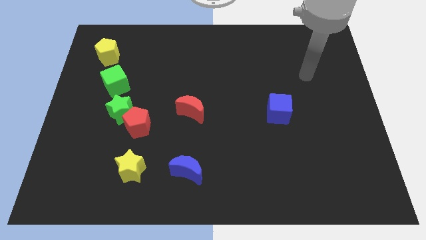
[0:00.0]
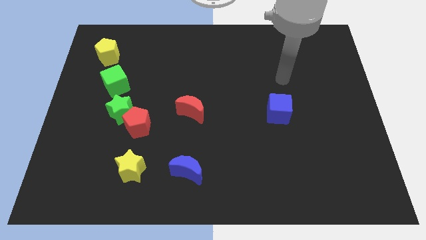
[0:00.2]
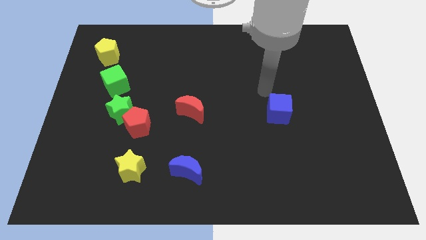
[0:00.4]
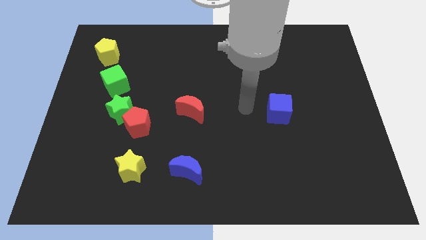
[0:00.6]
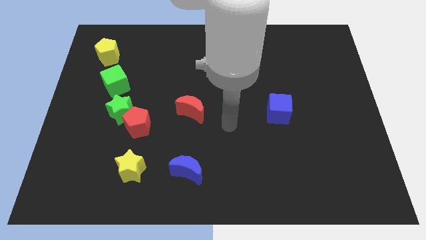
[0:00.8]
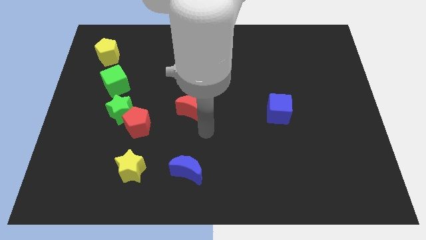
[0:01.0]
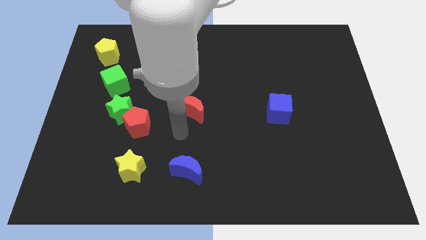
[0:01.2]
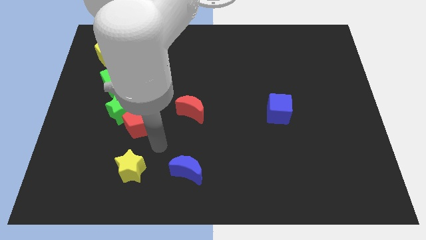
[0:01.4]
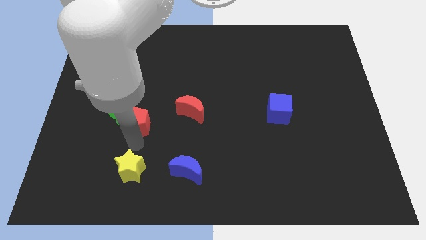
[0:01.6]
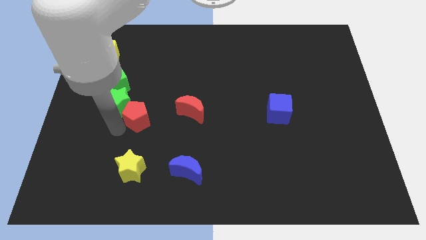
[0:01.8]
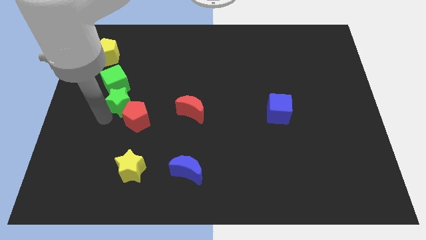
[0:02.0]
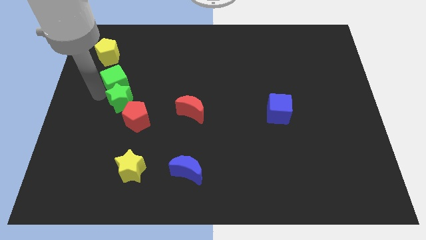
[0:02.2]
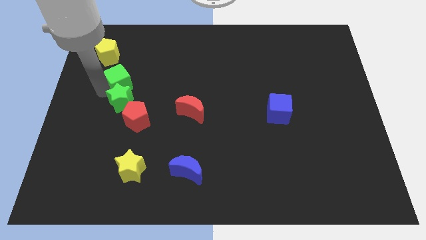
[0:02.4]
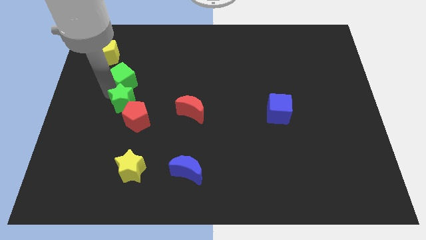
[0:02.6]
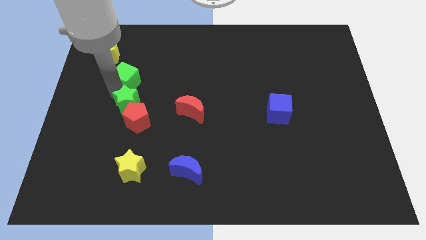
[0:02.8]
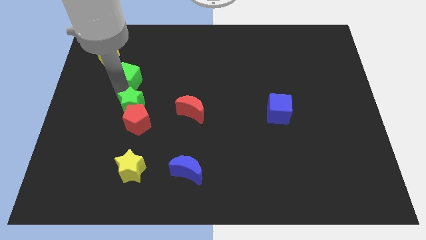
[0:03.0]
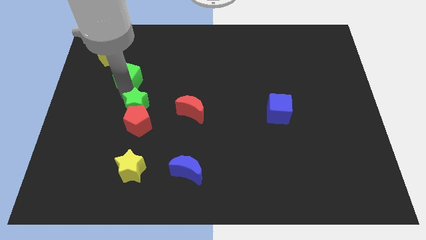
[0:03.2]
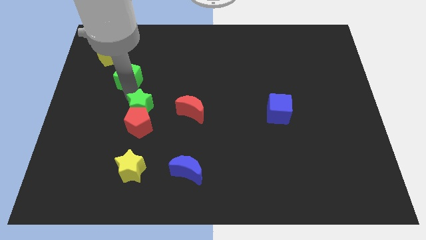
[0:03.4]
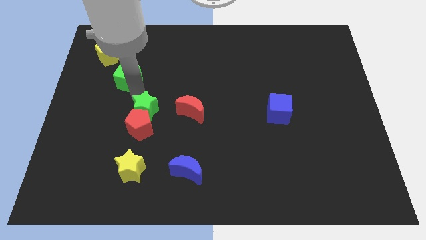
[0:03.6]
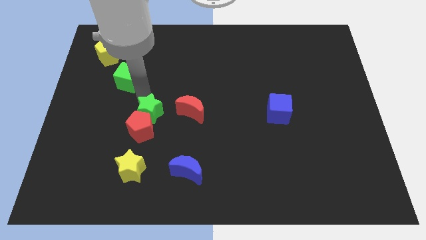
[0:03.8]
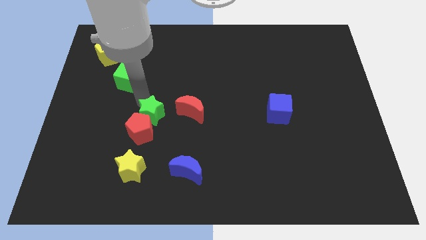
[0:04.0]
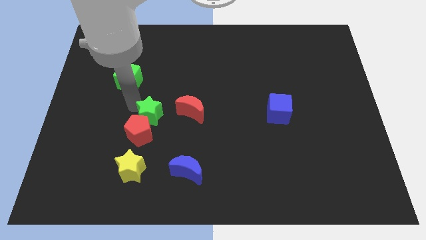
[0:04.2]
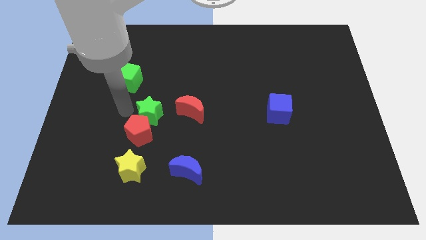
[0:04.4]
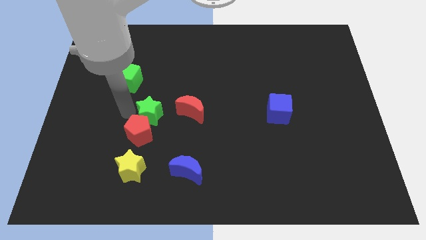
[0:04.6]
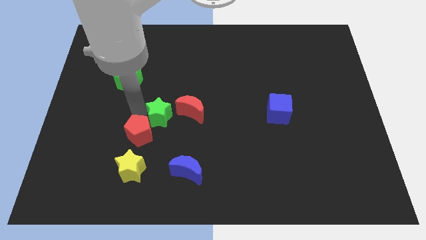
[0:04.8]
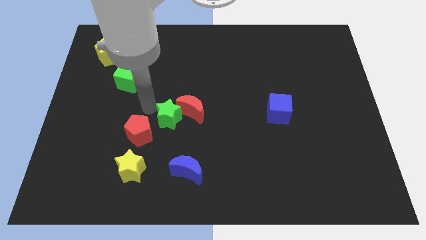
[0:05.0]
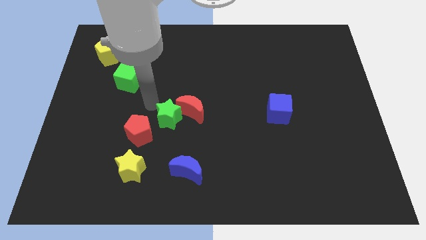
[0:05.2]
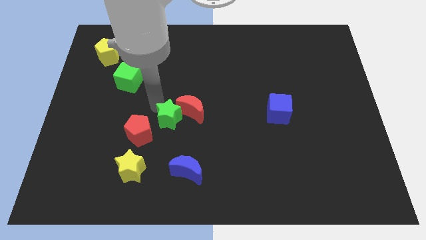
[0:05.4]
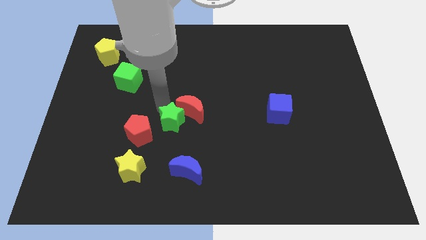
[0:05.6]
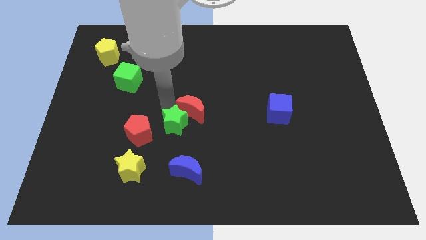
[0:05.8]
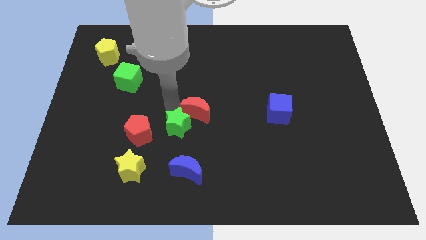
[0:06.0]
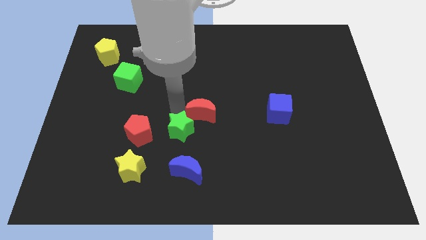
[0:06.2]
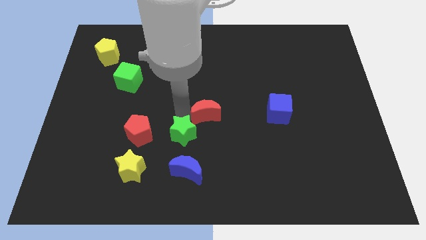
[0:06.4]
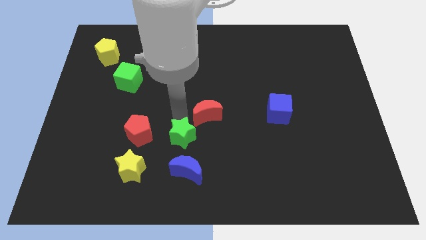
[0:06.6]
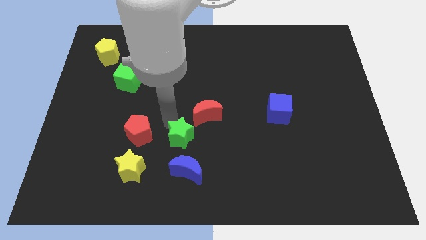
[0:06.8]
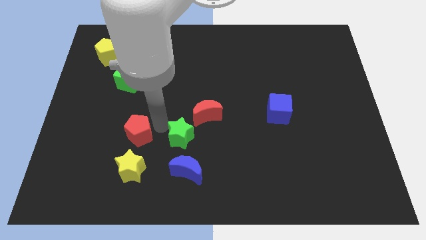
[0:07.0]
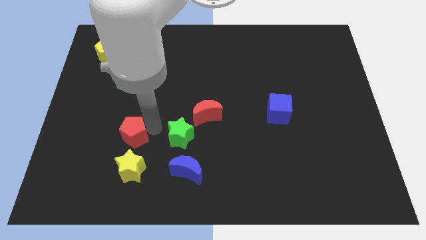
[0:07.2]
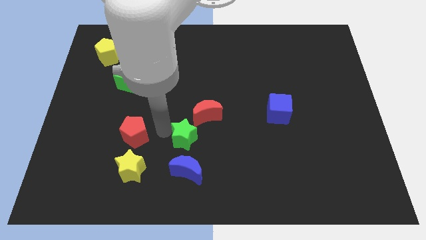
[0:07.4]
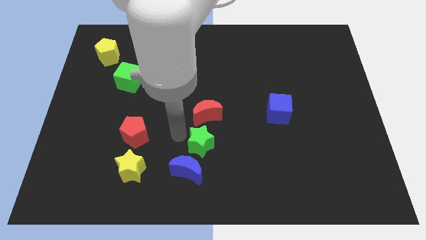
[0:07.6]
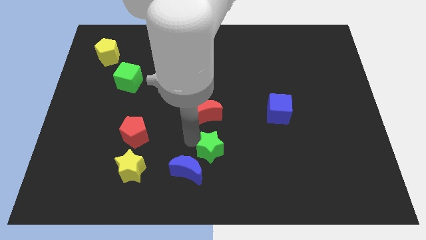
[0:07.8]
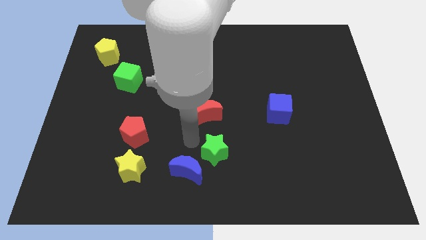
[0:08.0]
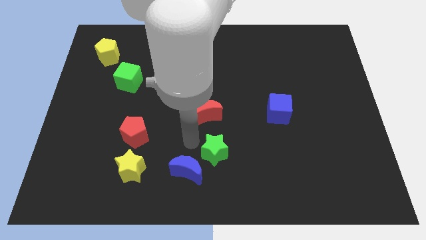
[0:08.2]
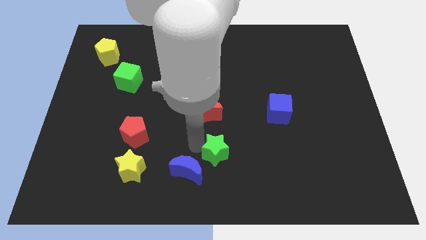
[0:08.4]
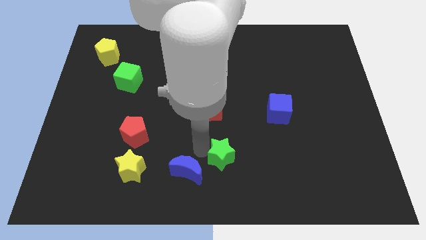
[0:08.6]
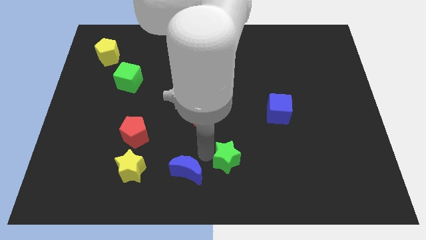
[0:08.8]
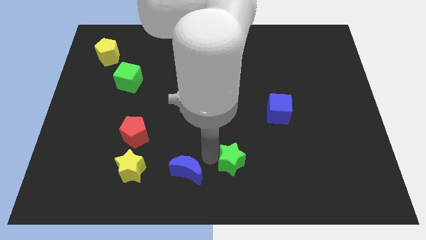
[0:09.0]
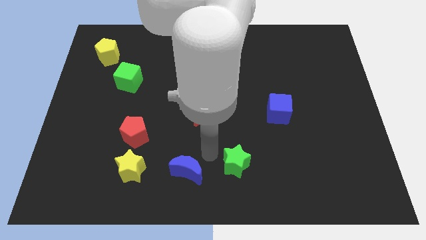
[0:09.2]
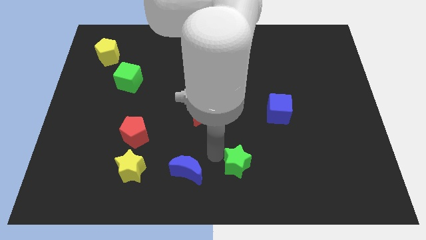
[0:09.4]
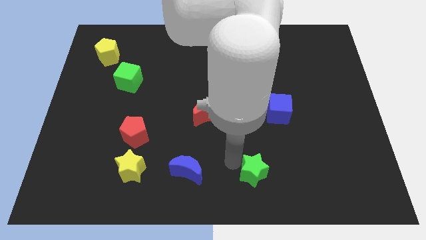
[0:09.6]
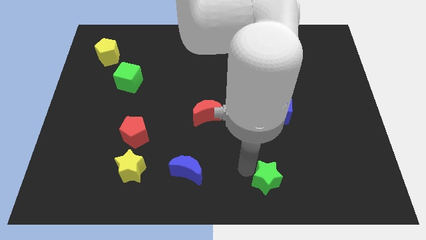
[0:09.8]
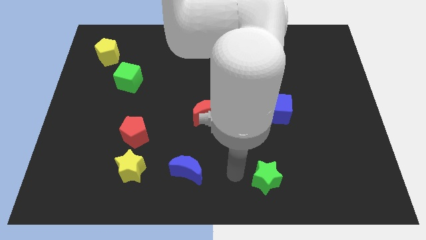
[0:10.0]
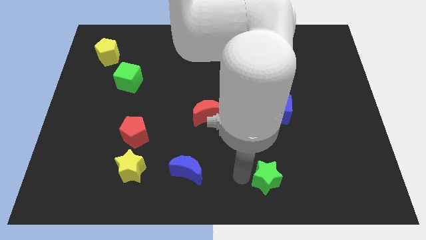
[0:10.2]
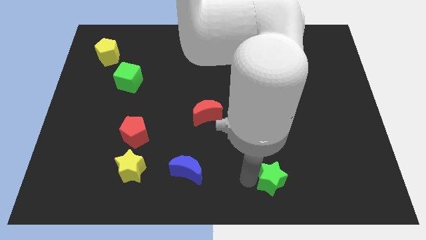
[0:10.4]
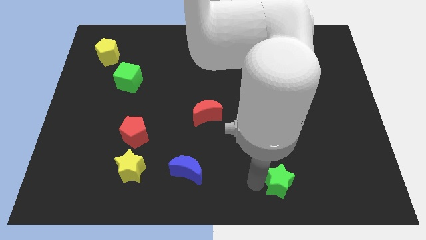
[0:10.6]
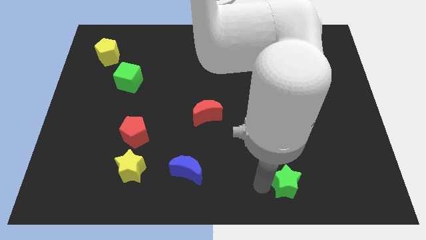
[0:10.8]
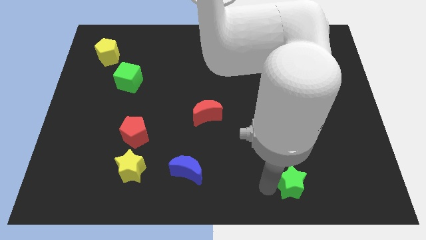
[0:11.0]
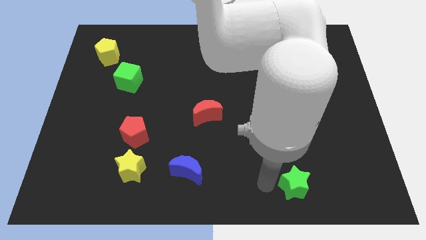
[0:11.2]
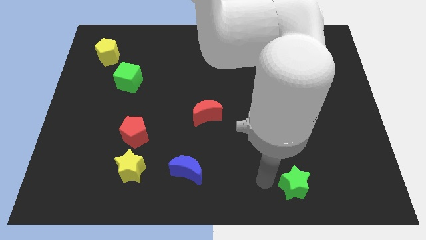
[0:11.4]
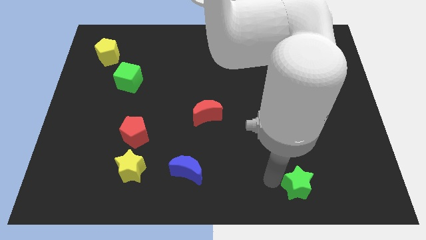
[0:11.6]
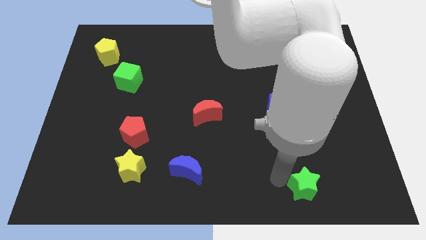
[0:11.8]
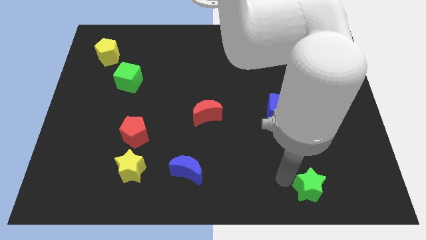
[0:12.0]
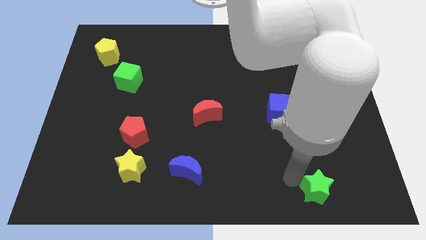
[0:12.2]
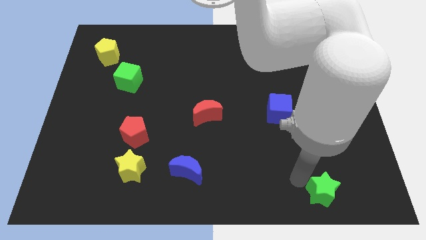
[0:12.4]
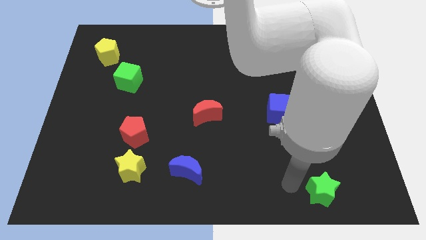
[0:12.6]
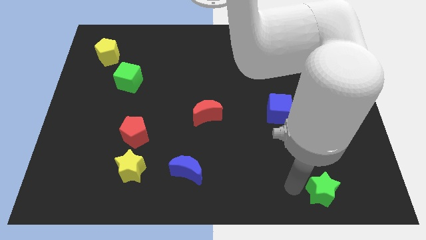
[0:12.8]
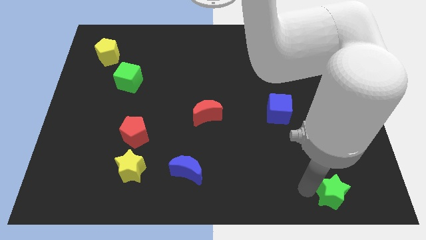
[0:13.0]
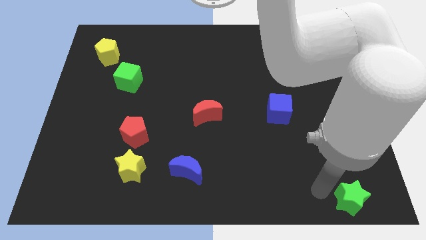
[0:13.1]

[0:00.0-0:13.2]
put the green star to the bottom right corner
